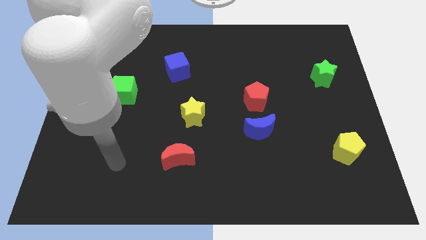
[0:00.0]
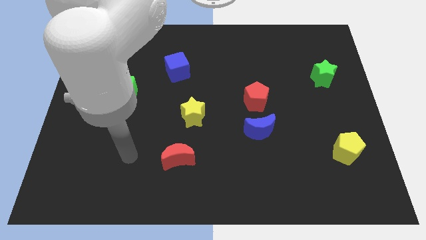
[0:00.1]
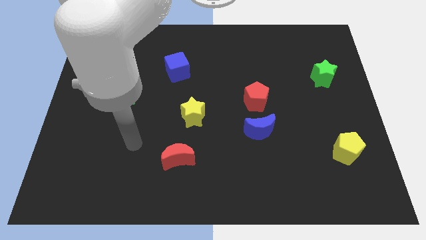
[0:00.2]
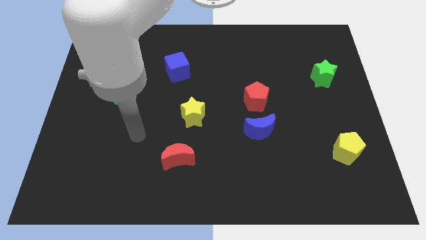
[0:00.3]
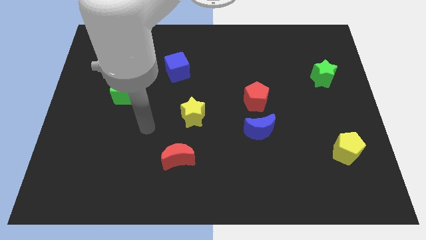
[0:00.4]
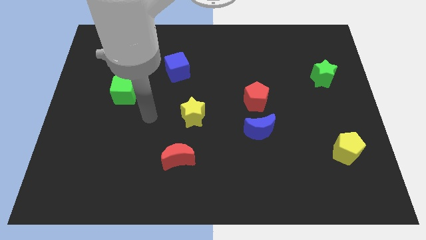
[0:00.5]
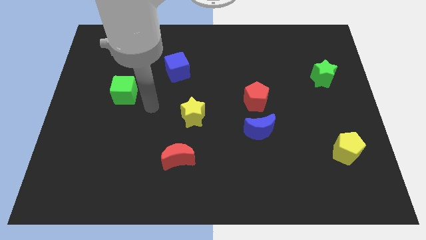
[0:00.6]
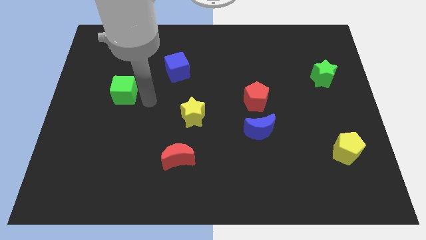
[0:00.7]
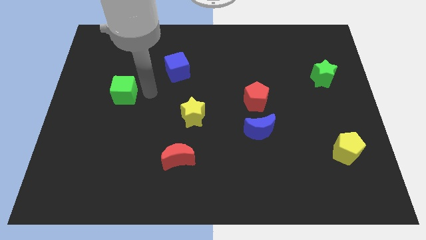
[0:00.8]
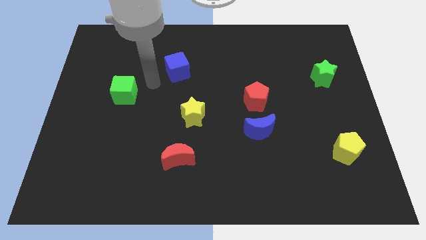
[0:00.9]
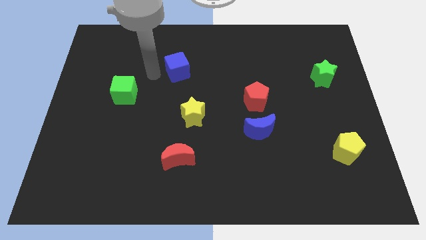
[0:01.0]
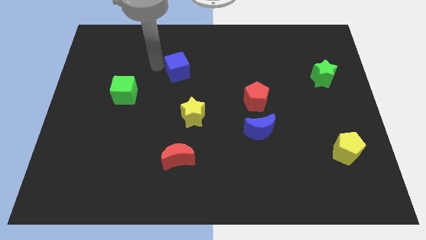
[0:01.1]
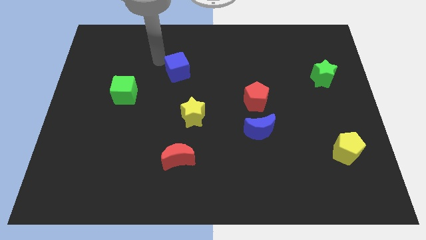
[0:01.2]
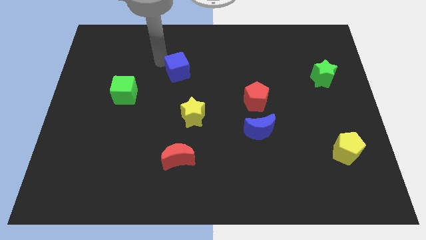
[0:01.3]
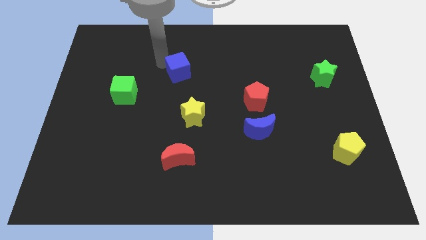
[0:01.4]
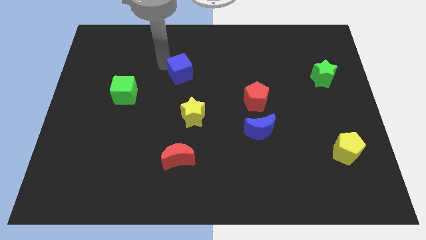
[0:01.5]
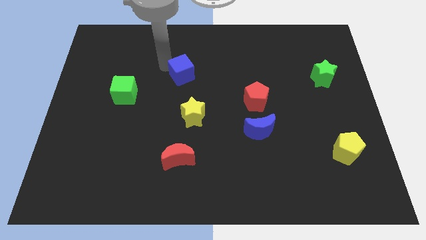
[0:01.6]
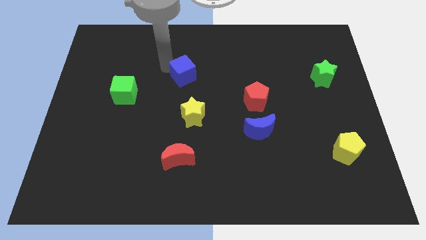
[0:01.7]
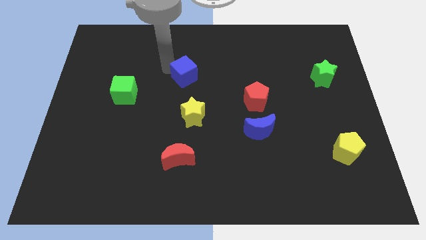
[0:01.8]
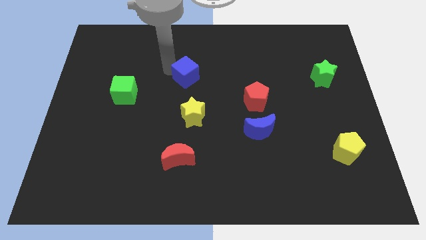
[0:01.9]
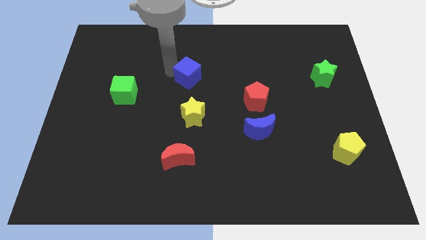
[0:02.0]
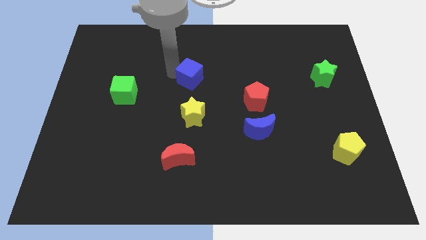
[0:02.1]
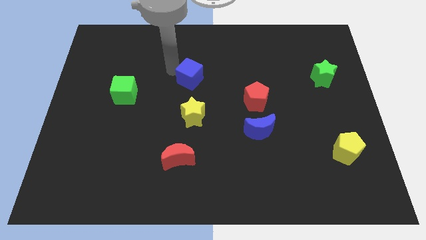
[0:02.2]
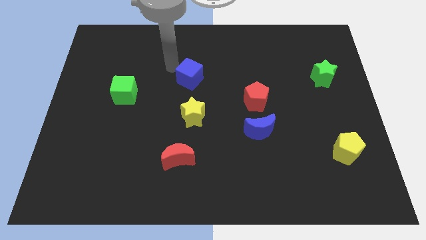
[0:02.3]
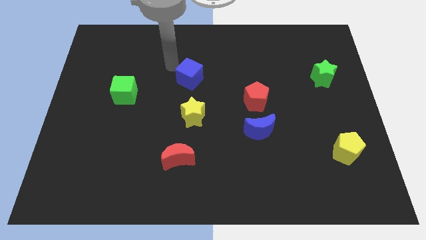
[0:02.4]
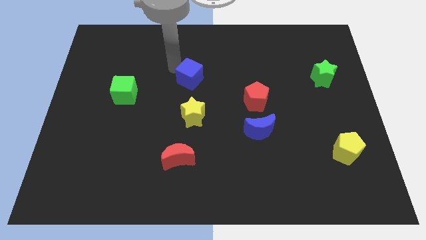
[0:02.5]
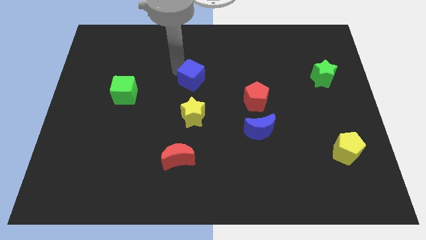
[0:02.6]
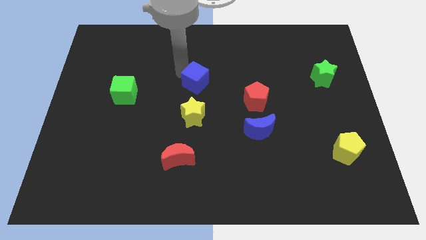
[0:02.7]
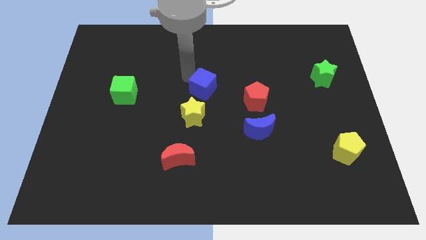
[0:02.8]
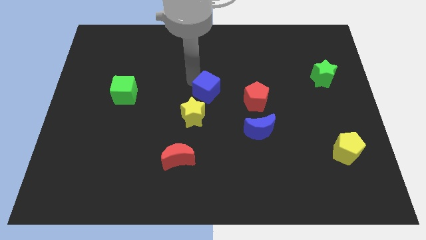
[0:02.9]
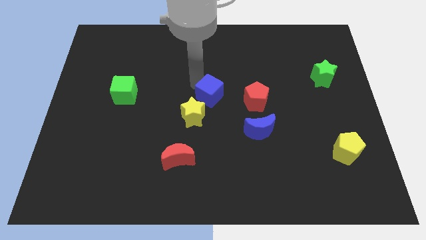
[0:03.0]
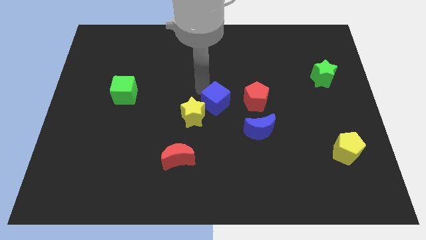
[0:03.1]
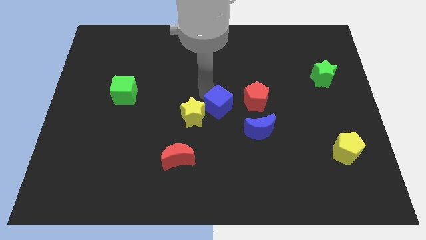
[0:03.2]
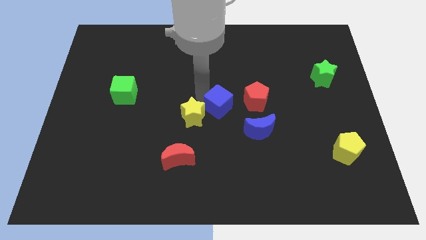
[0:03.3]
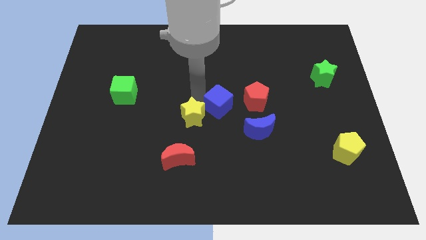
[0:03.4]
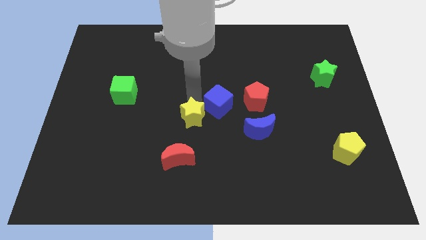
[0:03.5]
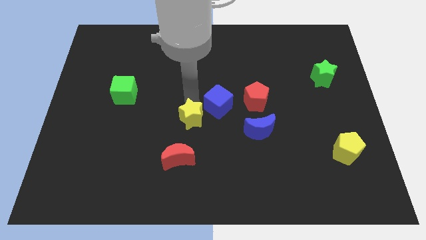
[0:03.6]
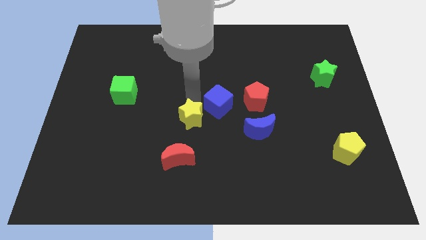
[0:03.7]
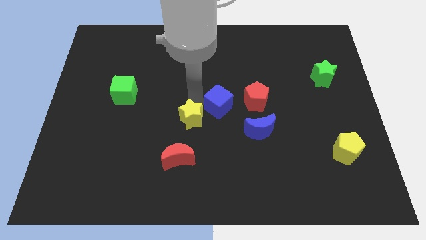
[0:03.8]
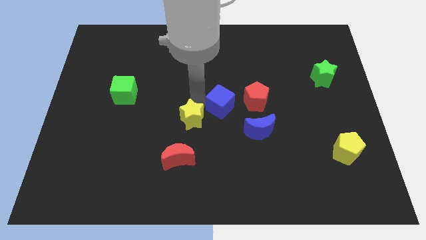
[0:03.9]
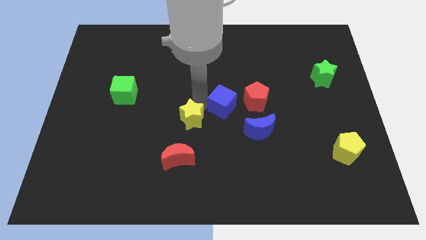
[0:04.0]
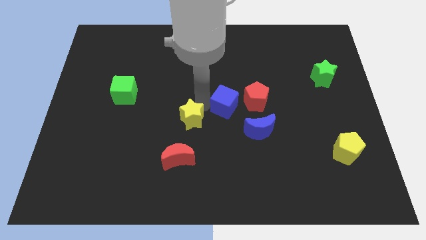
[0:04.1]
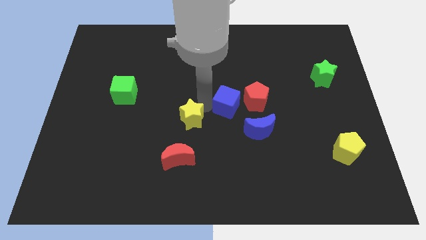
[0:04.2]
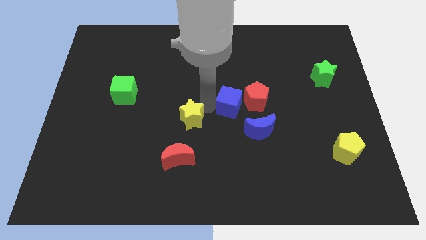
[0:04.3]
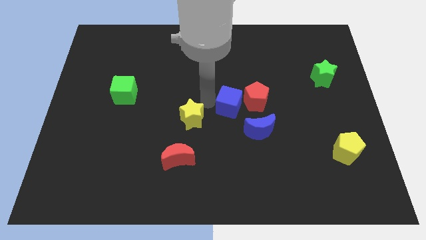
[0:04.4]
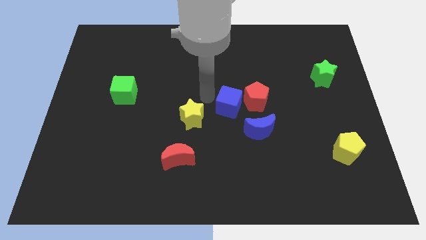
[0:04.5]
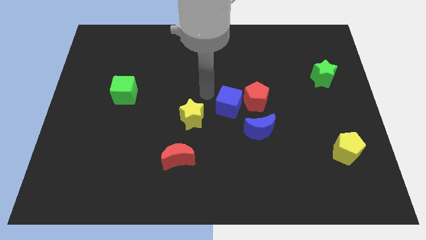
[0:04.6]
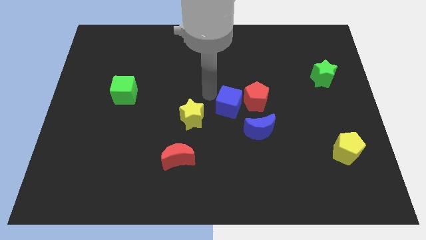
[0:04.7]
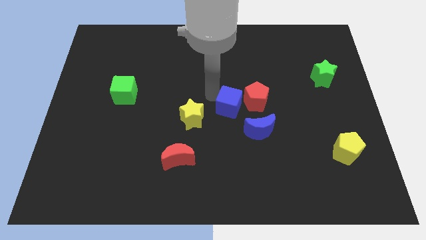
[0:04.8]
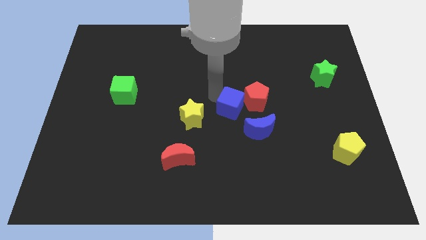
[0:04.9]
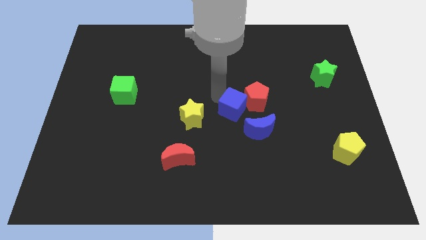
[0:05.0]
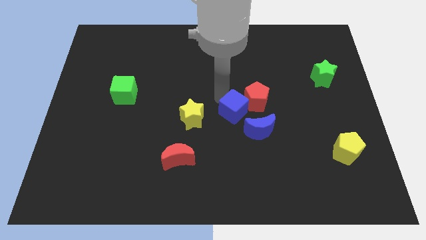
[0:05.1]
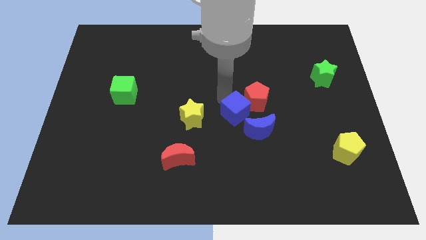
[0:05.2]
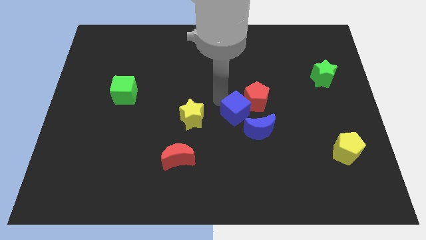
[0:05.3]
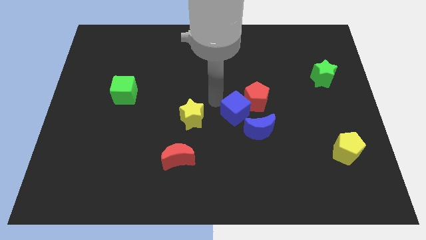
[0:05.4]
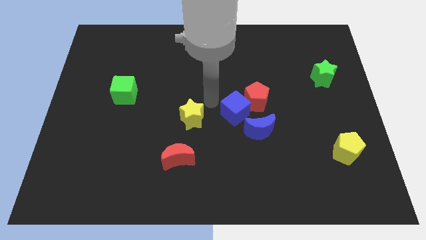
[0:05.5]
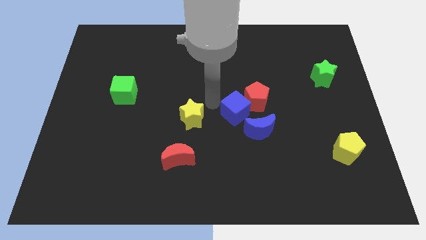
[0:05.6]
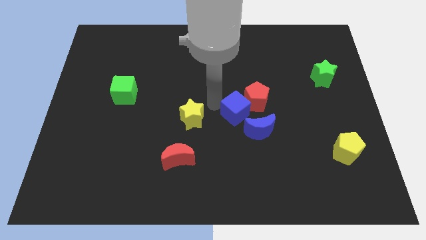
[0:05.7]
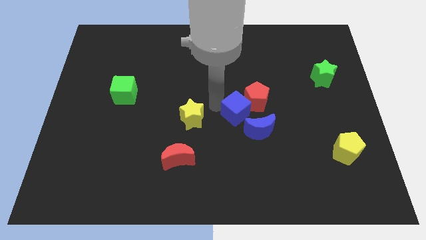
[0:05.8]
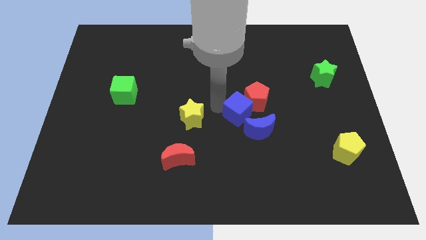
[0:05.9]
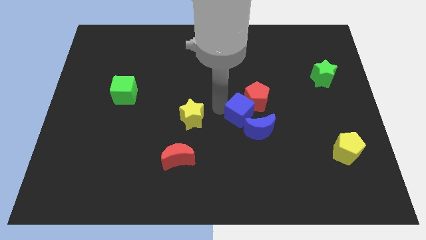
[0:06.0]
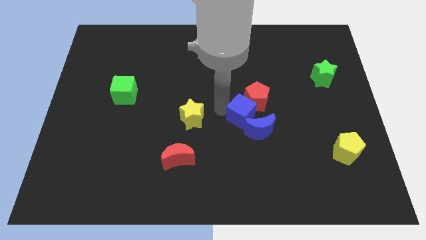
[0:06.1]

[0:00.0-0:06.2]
slide the blue cube next to the blue moon

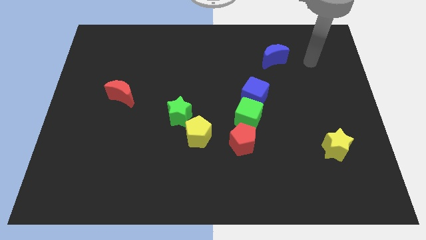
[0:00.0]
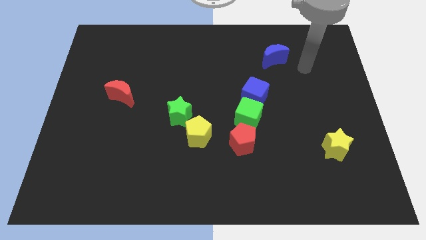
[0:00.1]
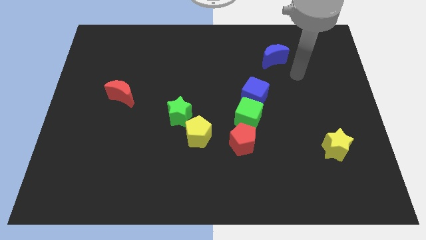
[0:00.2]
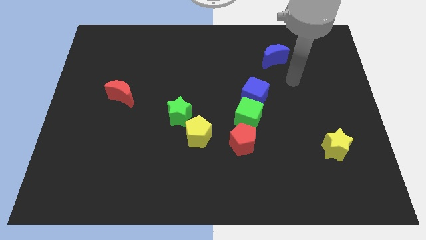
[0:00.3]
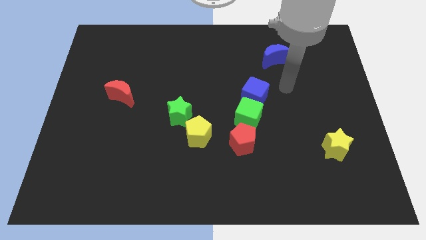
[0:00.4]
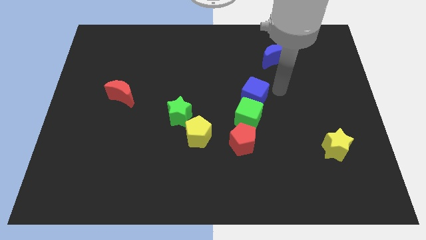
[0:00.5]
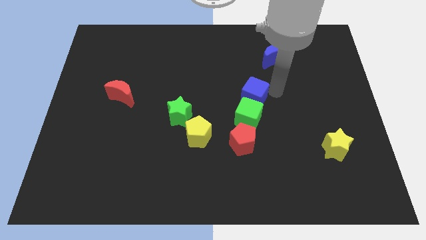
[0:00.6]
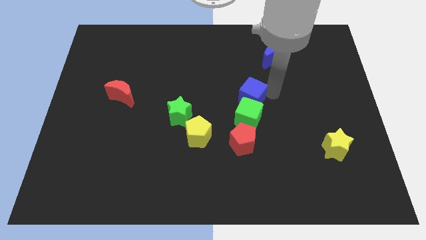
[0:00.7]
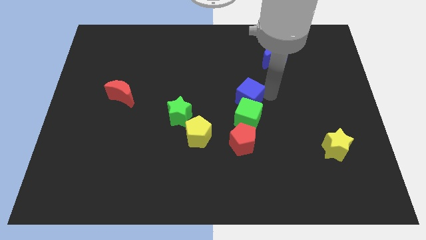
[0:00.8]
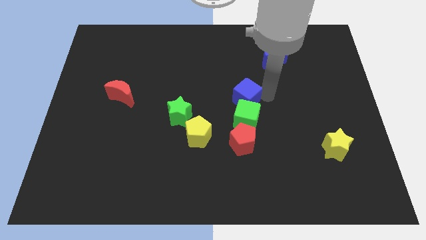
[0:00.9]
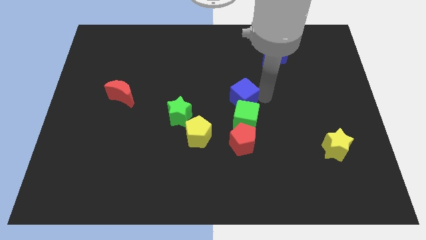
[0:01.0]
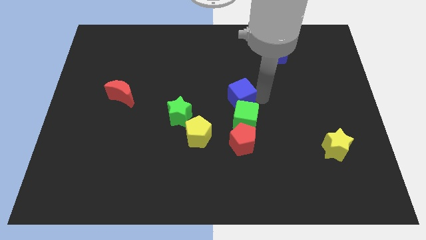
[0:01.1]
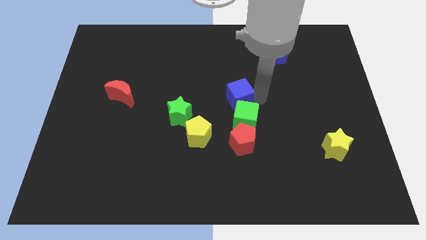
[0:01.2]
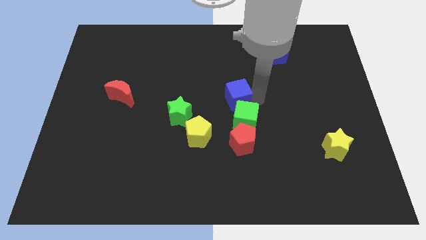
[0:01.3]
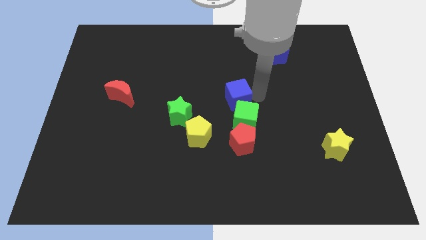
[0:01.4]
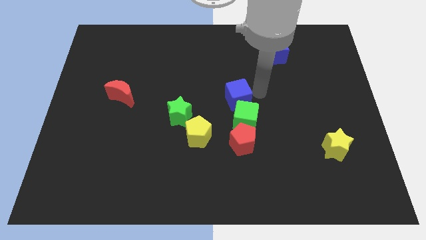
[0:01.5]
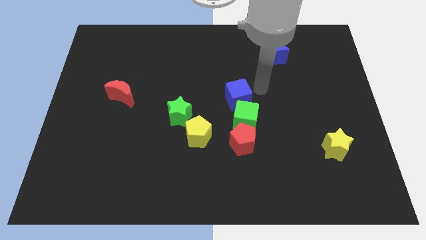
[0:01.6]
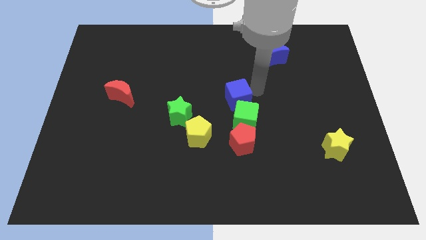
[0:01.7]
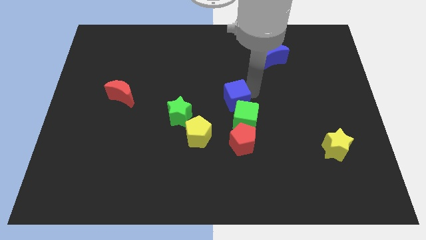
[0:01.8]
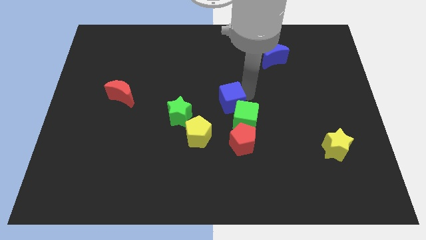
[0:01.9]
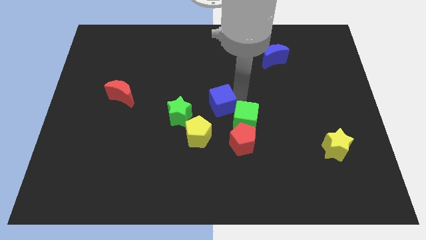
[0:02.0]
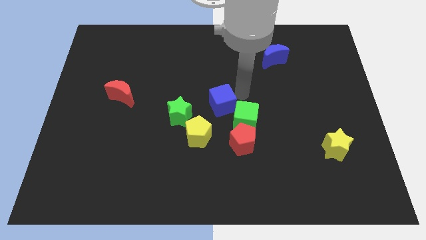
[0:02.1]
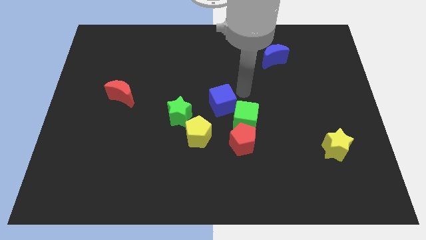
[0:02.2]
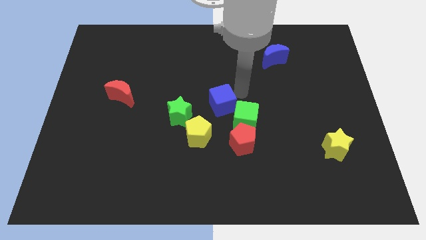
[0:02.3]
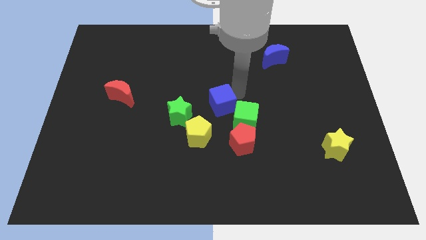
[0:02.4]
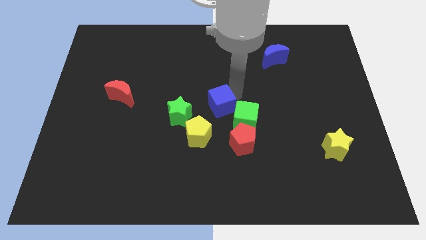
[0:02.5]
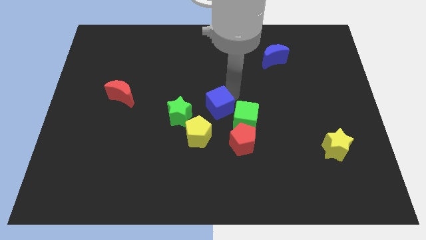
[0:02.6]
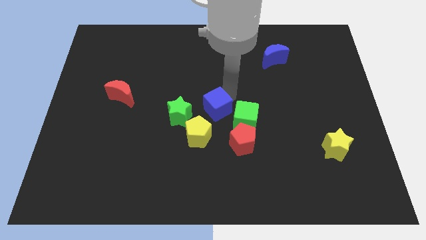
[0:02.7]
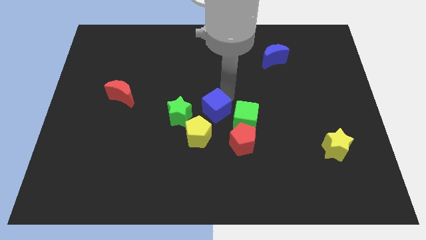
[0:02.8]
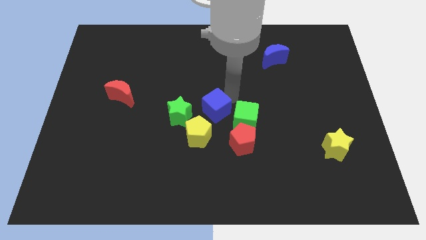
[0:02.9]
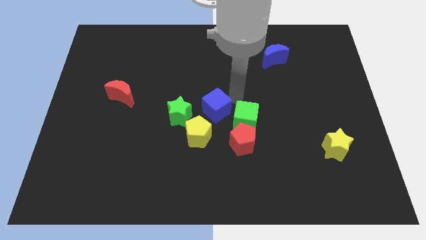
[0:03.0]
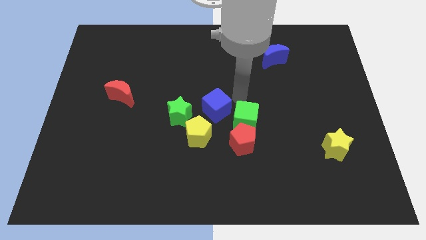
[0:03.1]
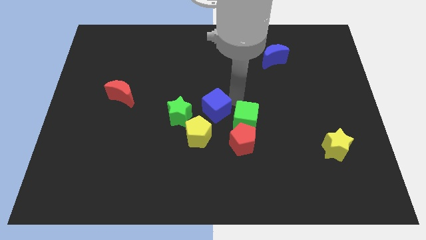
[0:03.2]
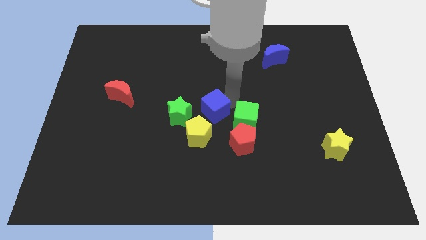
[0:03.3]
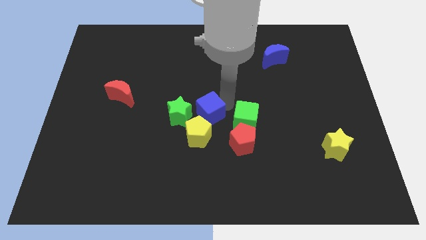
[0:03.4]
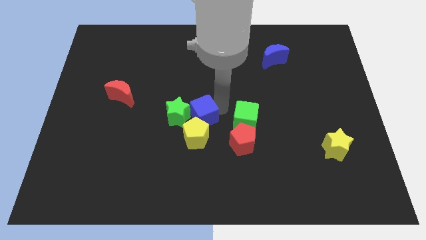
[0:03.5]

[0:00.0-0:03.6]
put the blue cube to the green star
